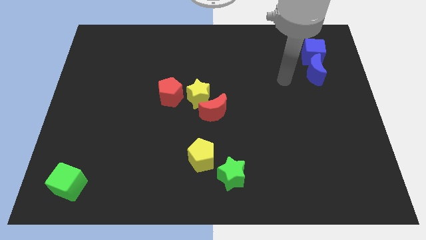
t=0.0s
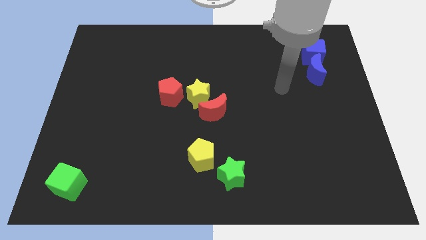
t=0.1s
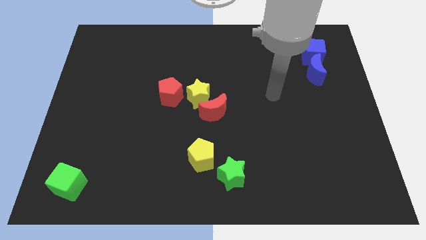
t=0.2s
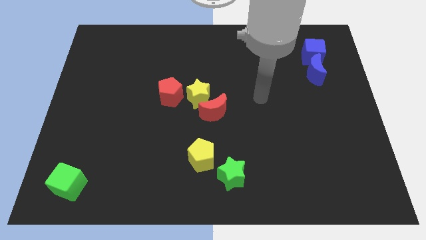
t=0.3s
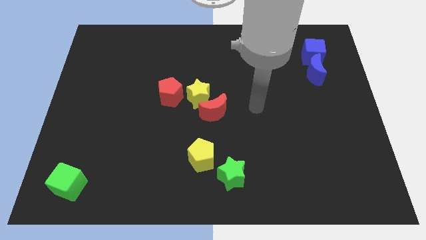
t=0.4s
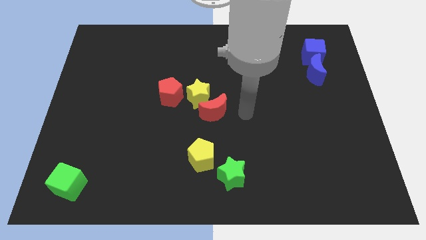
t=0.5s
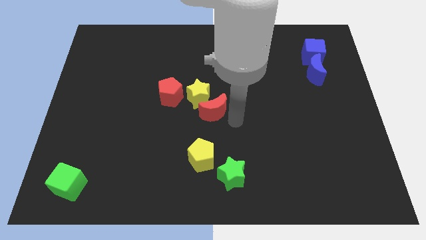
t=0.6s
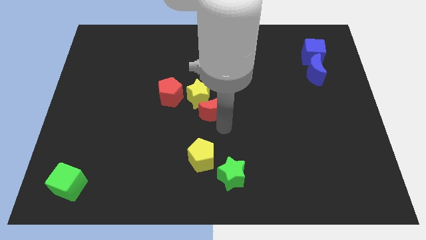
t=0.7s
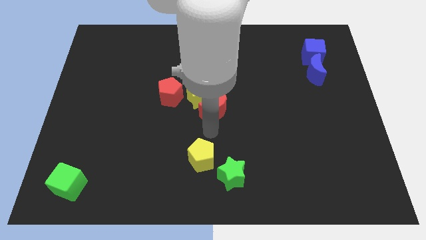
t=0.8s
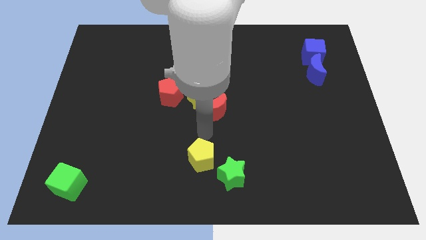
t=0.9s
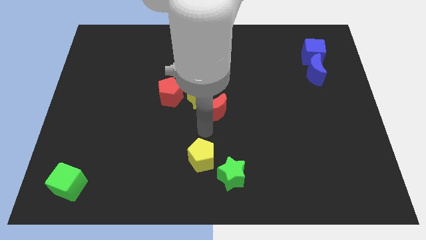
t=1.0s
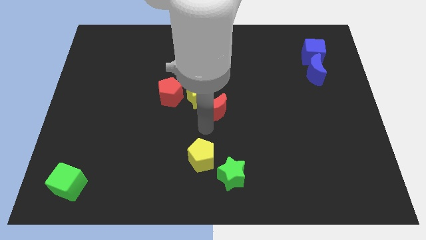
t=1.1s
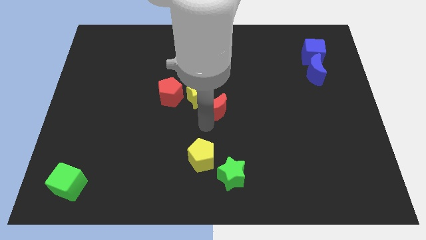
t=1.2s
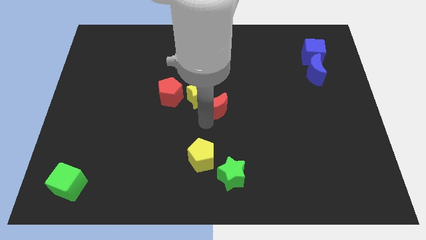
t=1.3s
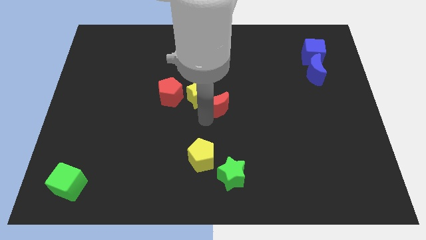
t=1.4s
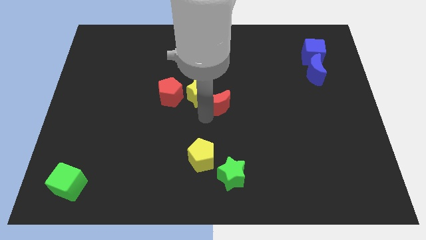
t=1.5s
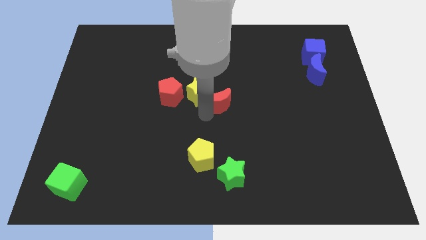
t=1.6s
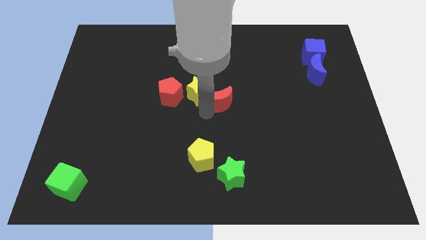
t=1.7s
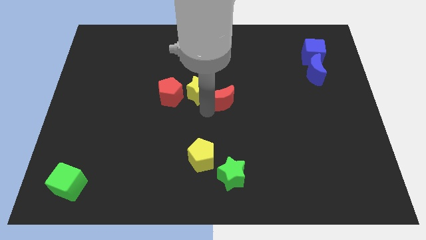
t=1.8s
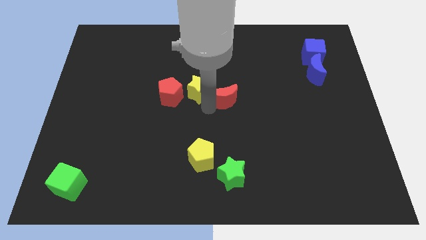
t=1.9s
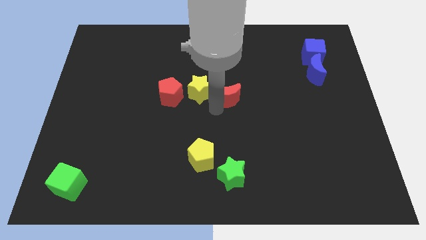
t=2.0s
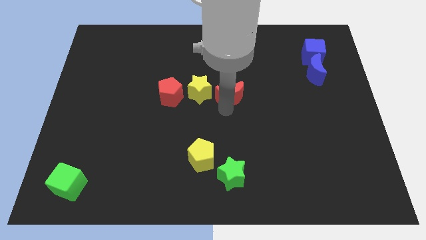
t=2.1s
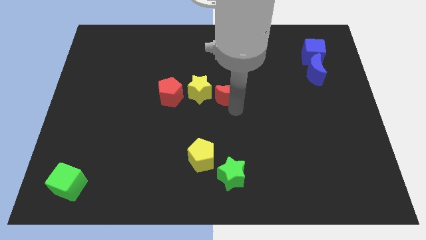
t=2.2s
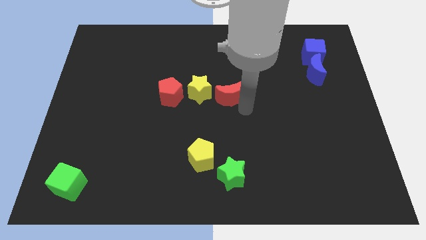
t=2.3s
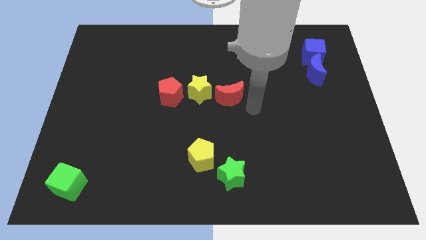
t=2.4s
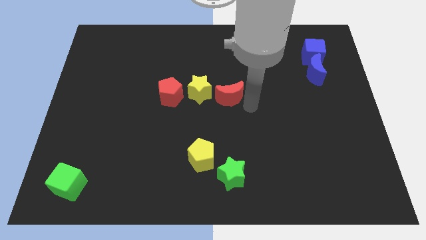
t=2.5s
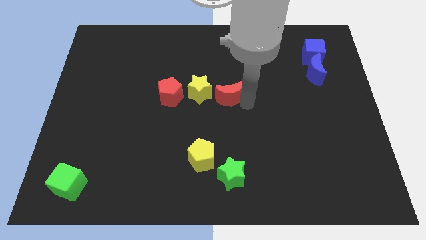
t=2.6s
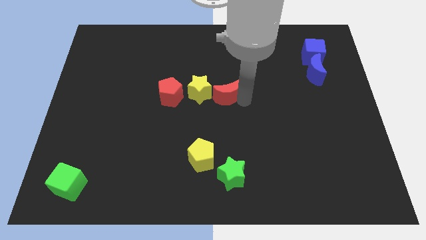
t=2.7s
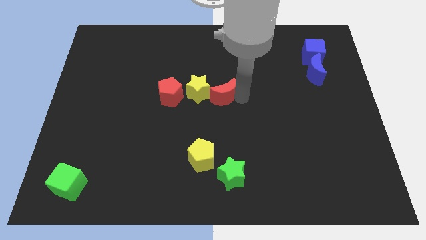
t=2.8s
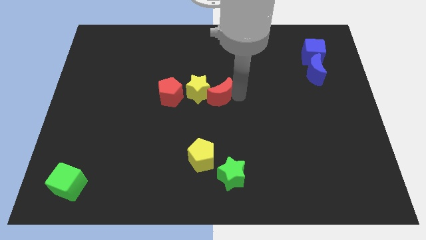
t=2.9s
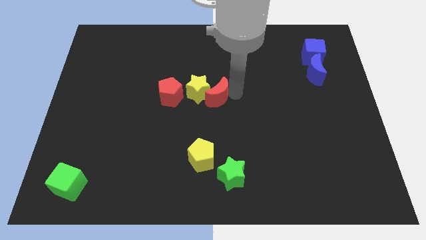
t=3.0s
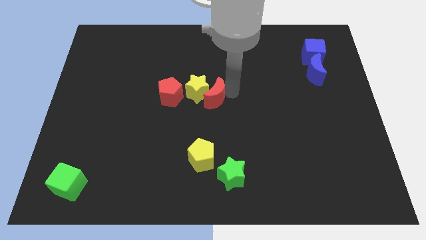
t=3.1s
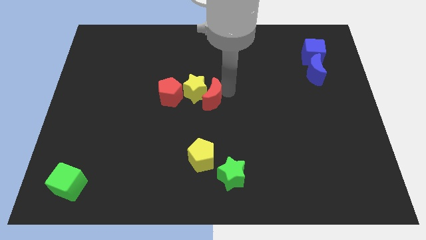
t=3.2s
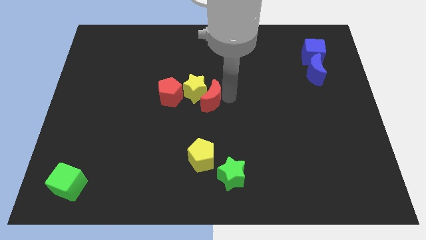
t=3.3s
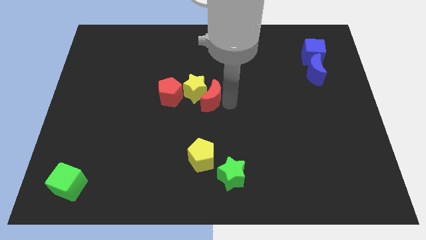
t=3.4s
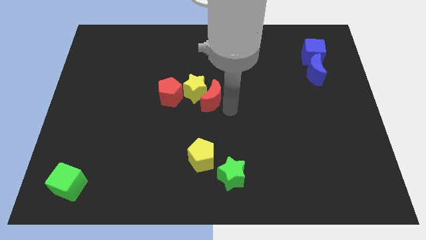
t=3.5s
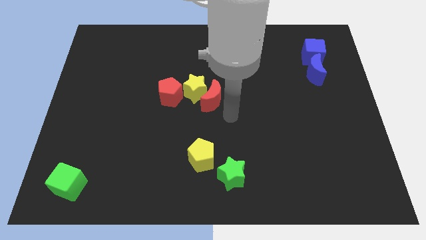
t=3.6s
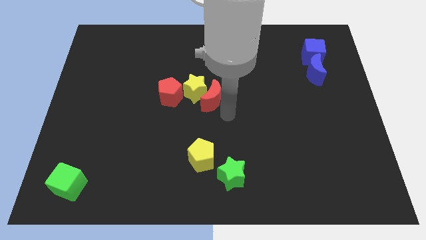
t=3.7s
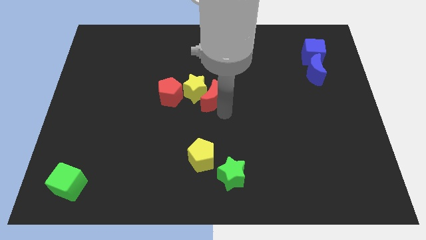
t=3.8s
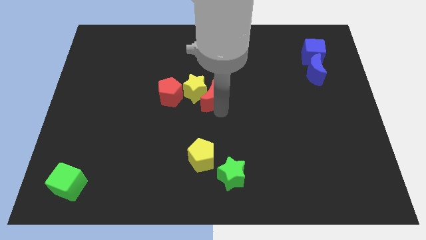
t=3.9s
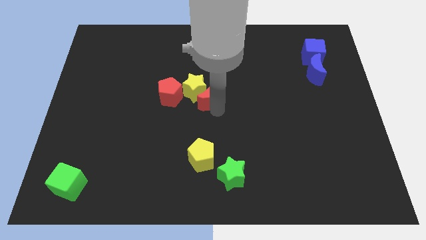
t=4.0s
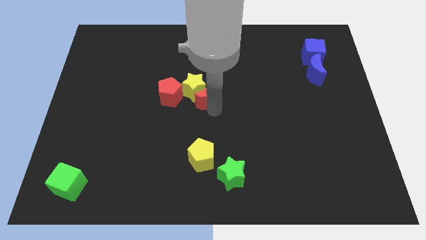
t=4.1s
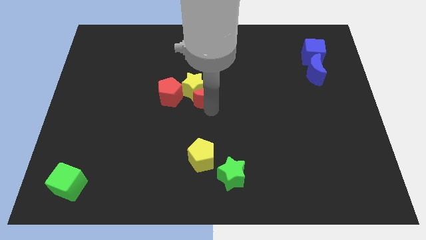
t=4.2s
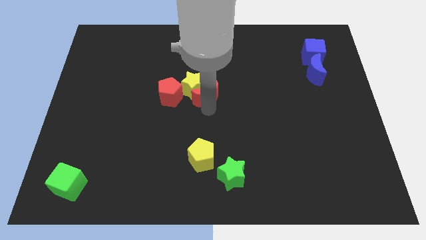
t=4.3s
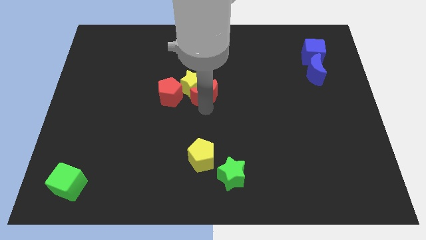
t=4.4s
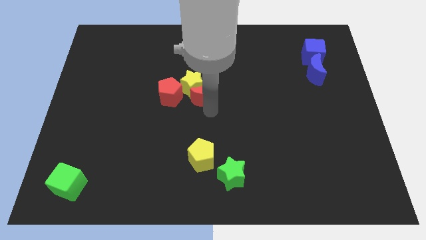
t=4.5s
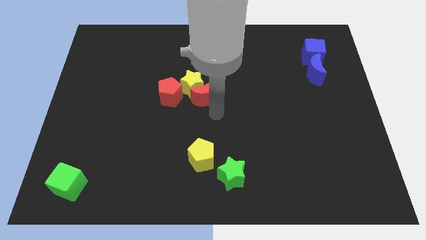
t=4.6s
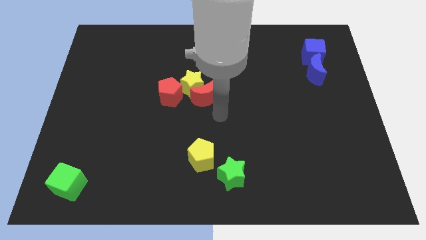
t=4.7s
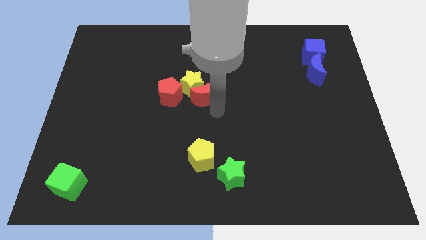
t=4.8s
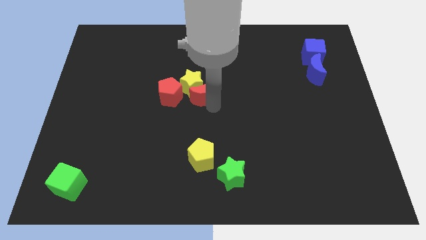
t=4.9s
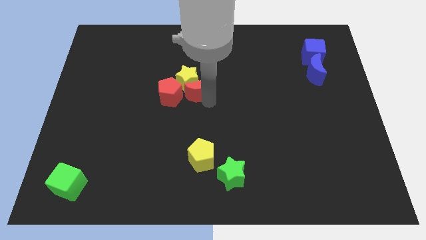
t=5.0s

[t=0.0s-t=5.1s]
move the red moon to the top right of the red pentagon

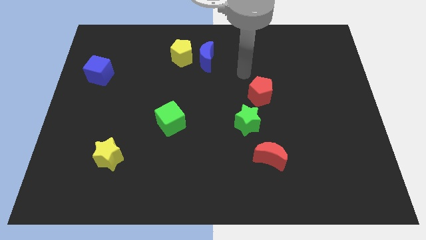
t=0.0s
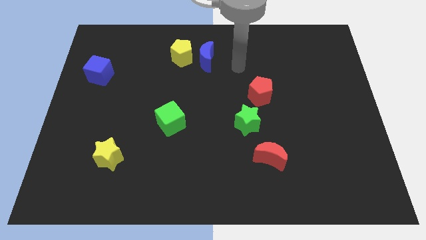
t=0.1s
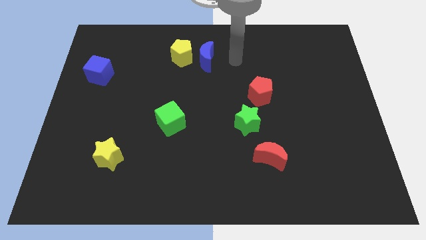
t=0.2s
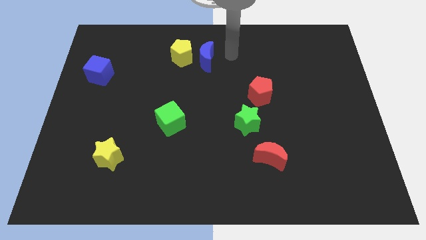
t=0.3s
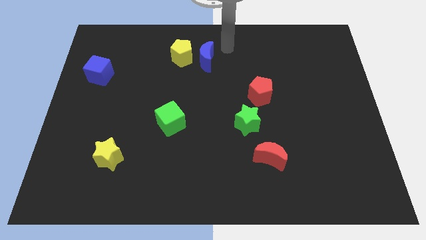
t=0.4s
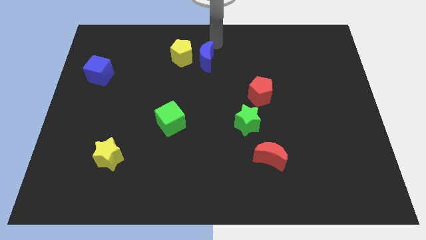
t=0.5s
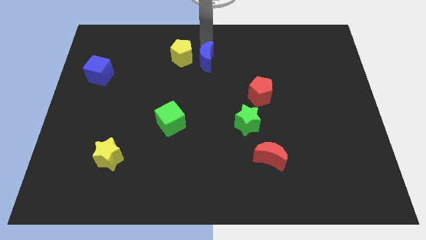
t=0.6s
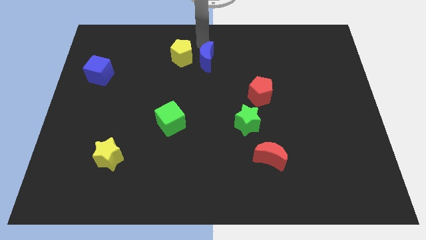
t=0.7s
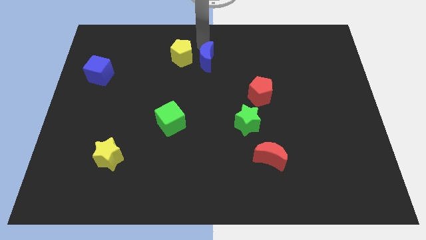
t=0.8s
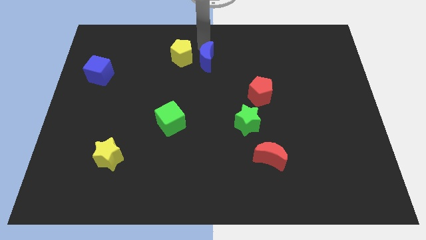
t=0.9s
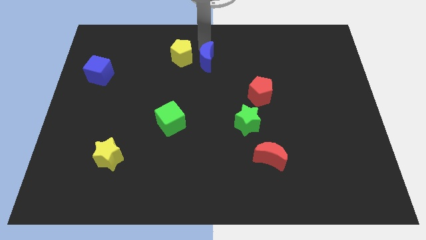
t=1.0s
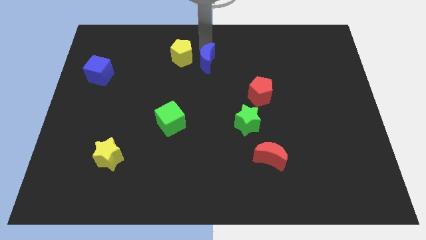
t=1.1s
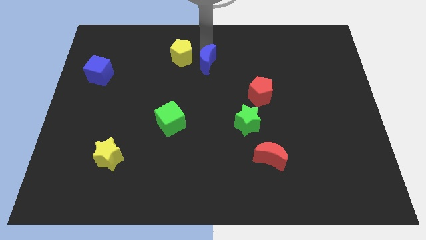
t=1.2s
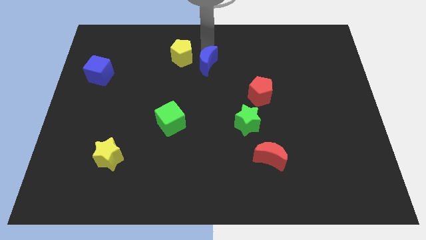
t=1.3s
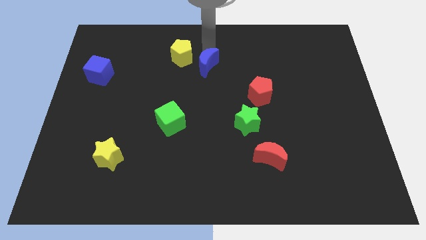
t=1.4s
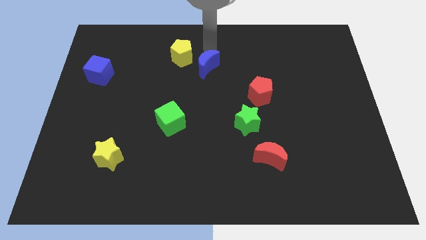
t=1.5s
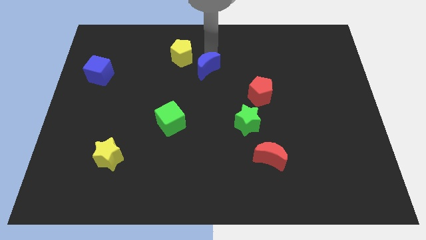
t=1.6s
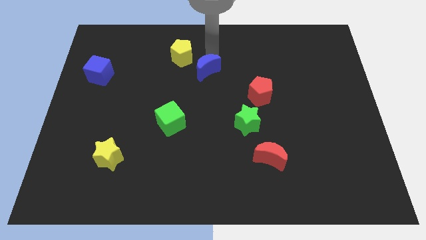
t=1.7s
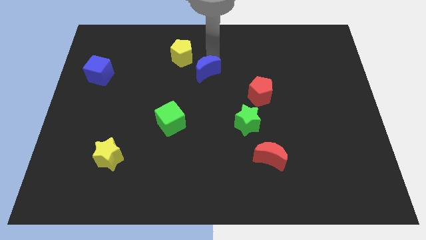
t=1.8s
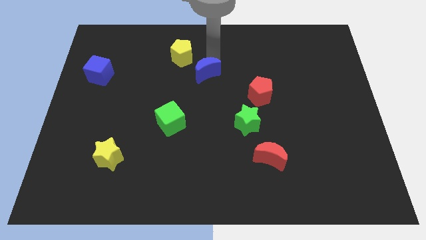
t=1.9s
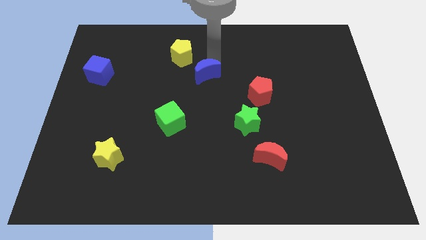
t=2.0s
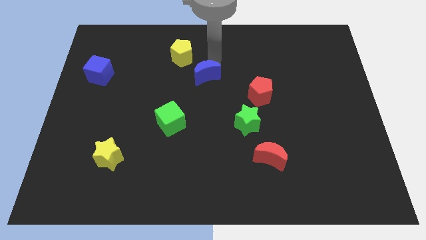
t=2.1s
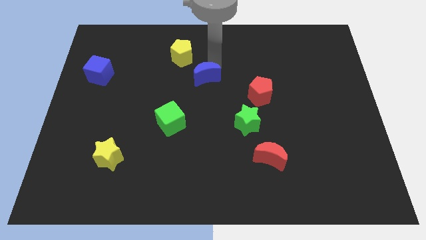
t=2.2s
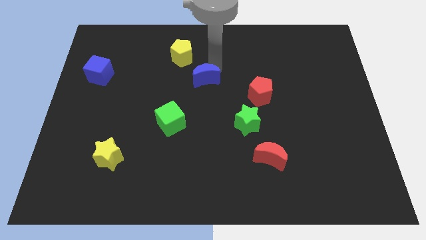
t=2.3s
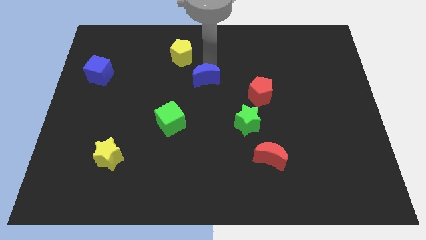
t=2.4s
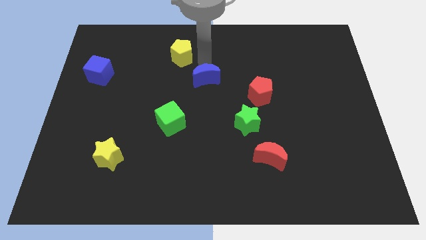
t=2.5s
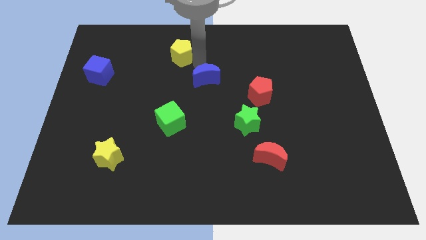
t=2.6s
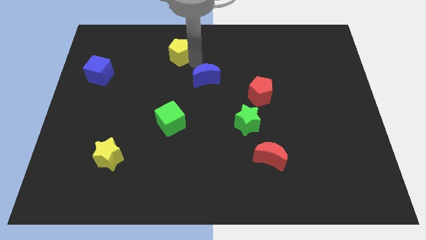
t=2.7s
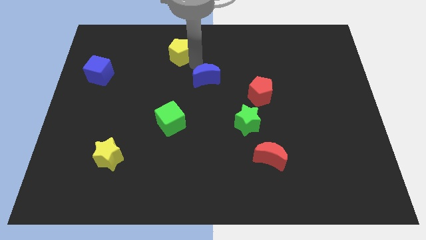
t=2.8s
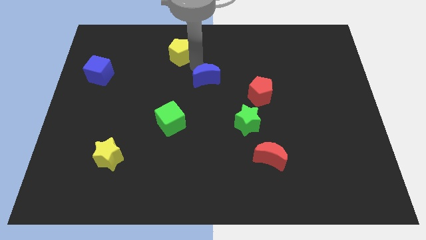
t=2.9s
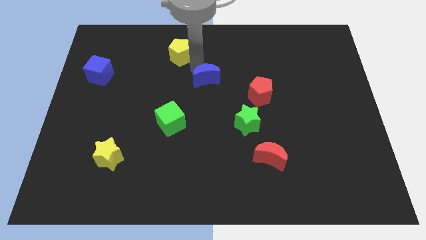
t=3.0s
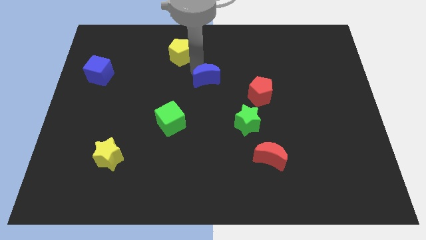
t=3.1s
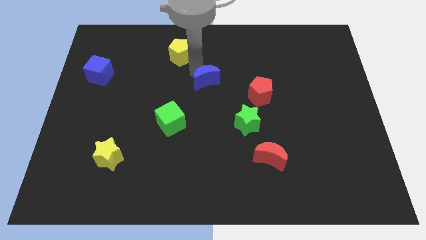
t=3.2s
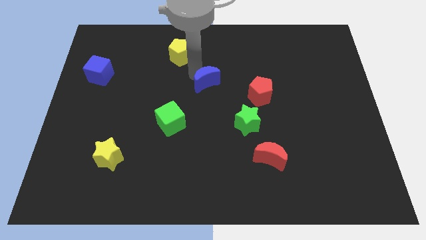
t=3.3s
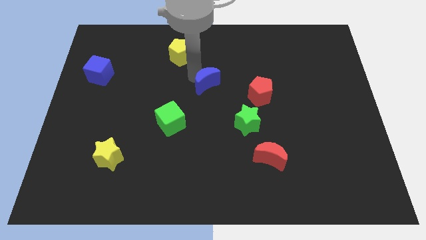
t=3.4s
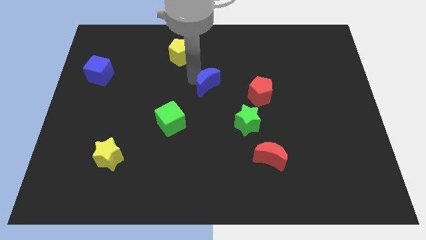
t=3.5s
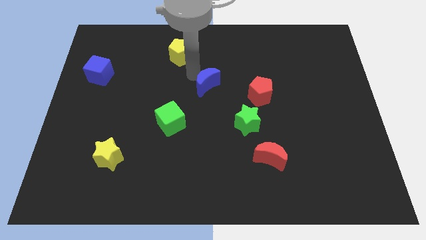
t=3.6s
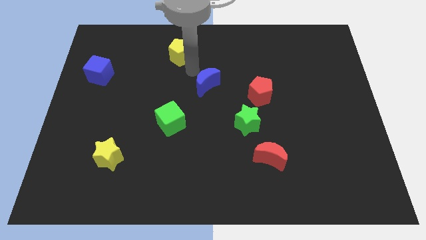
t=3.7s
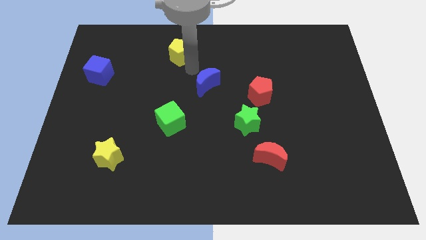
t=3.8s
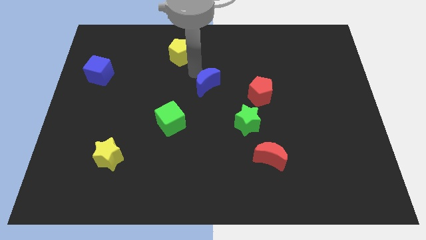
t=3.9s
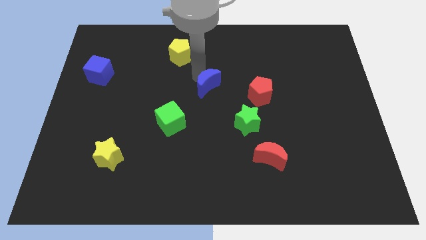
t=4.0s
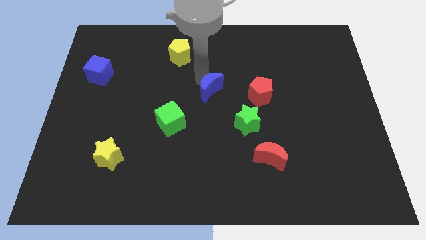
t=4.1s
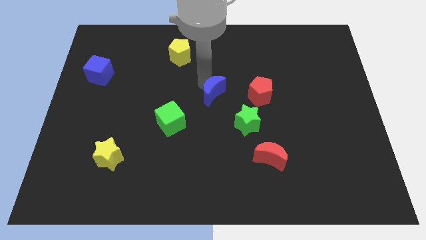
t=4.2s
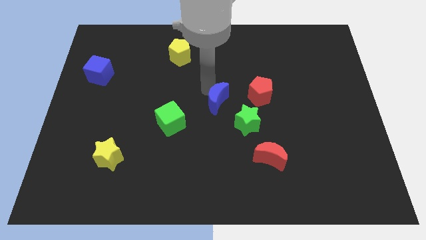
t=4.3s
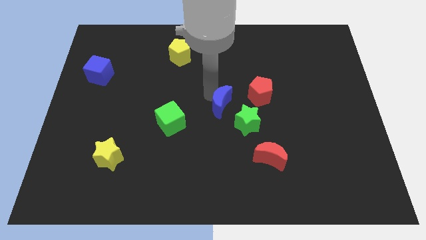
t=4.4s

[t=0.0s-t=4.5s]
slide the blue moon to the bottom left of the red pentagon
